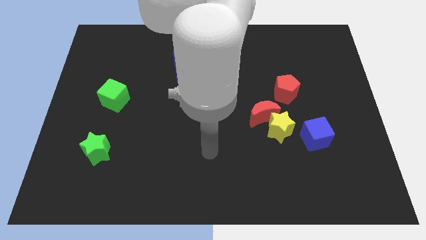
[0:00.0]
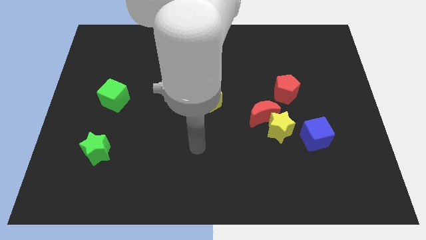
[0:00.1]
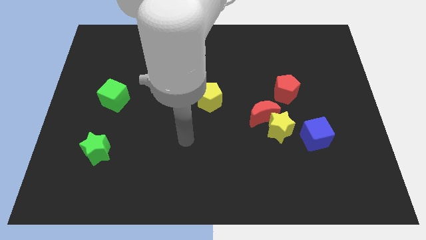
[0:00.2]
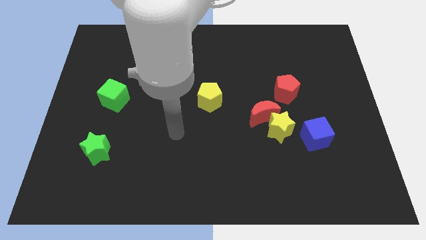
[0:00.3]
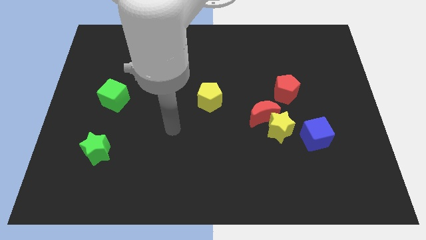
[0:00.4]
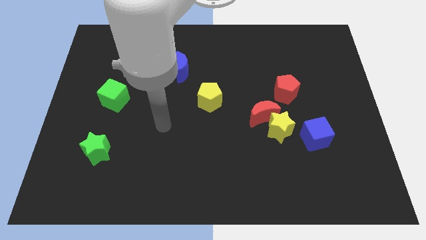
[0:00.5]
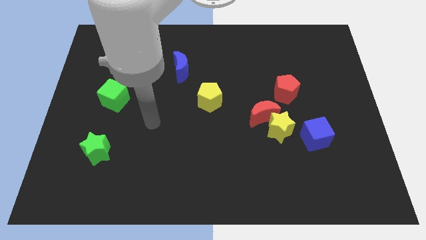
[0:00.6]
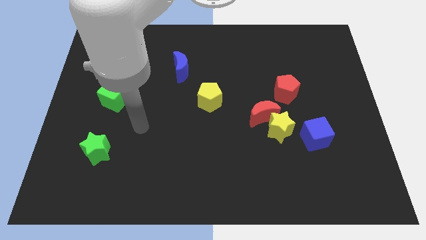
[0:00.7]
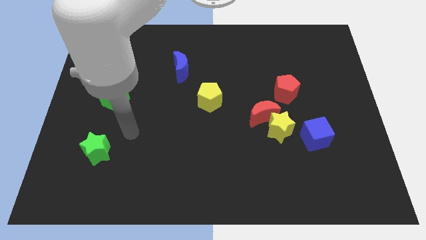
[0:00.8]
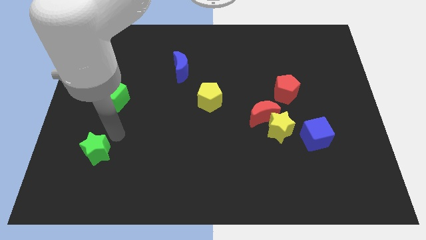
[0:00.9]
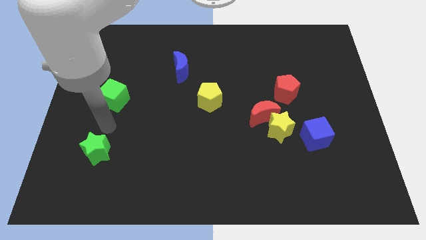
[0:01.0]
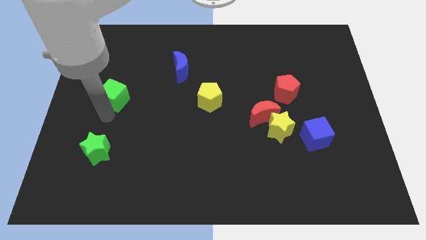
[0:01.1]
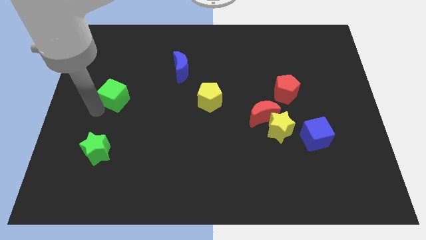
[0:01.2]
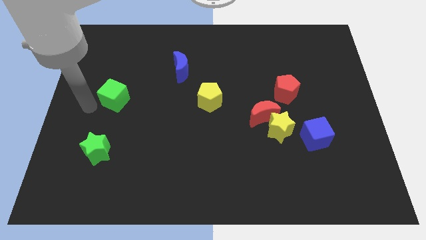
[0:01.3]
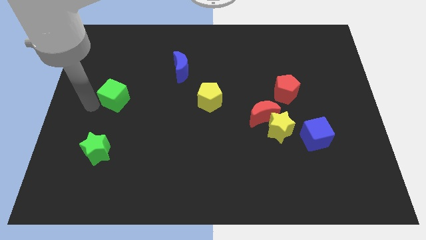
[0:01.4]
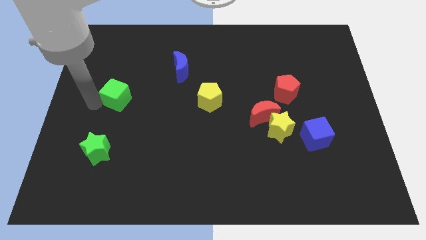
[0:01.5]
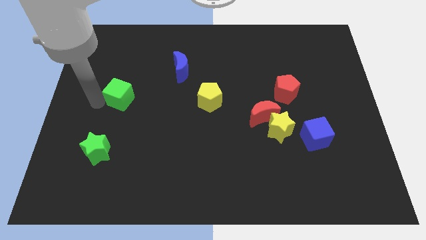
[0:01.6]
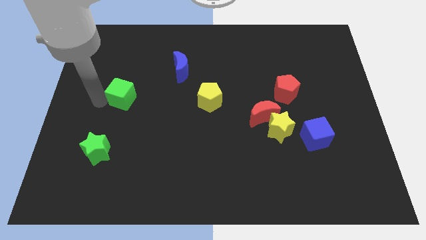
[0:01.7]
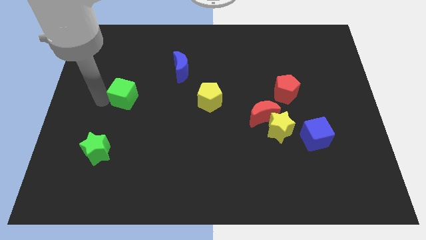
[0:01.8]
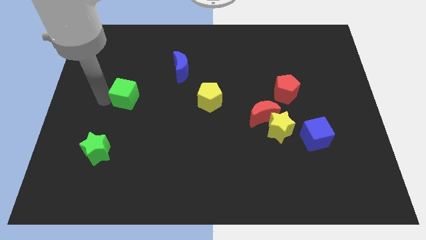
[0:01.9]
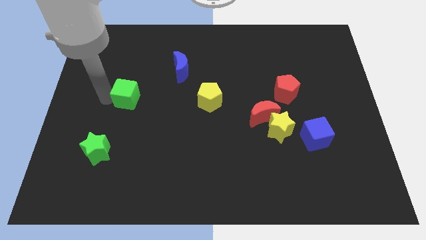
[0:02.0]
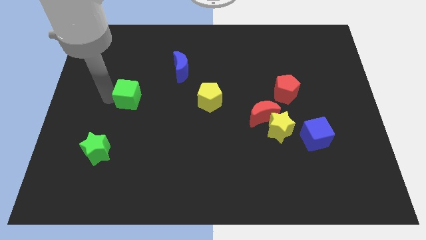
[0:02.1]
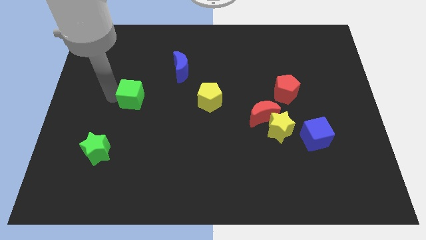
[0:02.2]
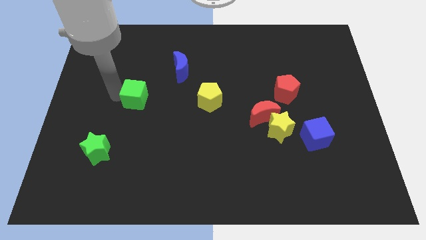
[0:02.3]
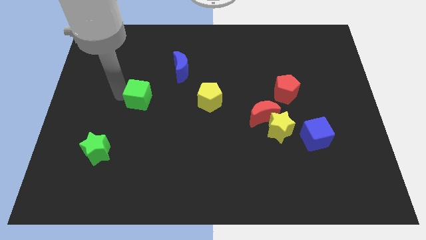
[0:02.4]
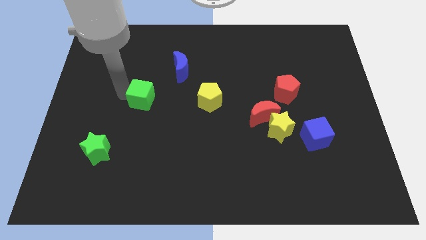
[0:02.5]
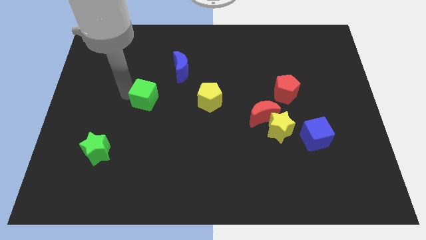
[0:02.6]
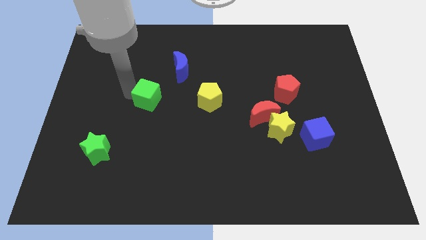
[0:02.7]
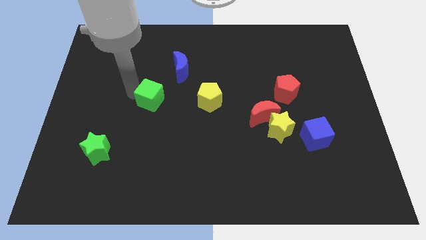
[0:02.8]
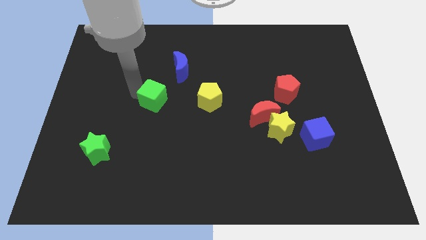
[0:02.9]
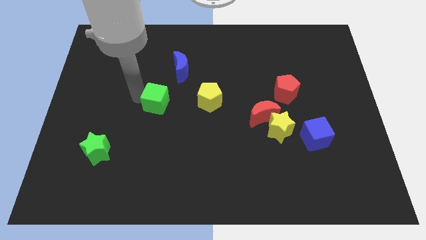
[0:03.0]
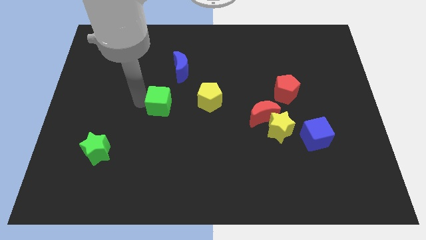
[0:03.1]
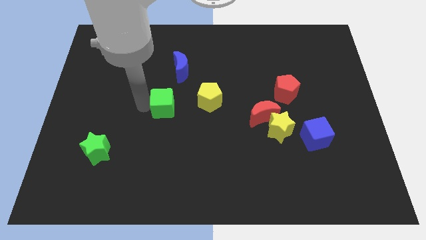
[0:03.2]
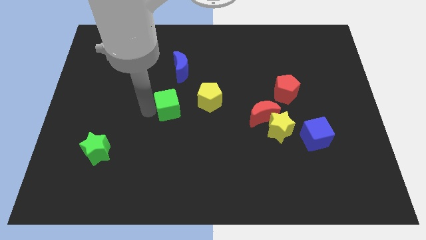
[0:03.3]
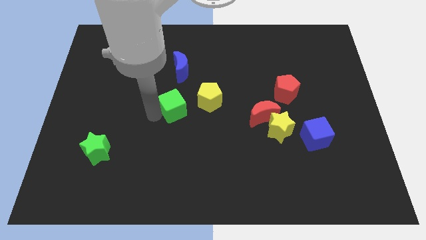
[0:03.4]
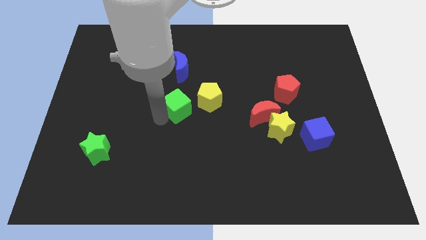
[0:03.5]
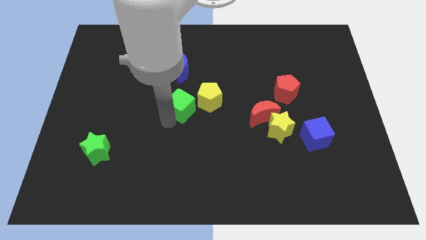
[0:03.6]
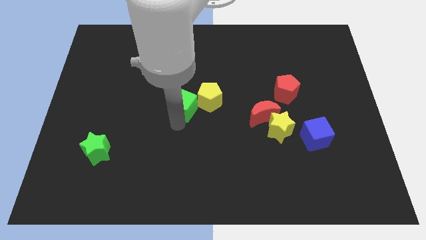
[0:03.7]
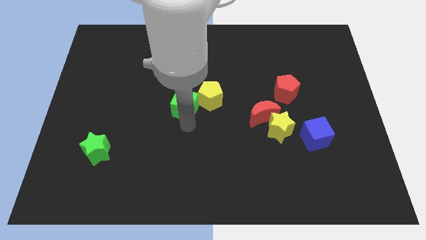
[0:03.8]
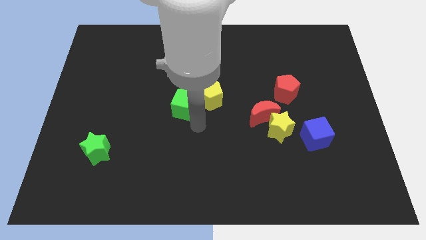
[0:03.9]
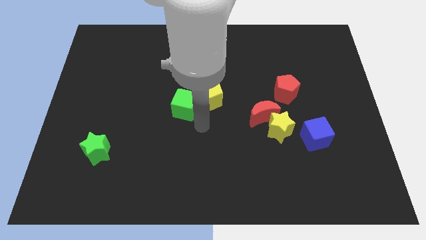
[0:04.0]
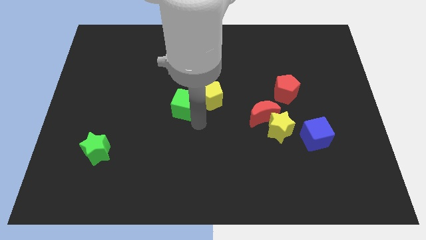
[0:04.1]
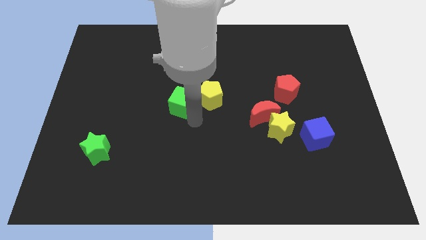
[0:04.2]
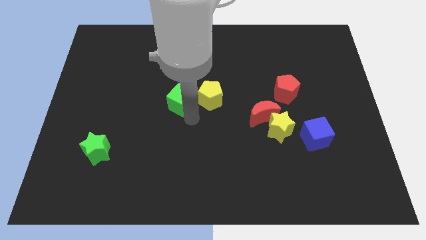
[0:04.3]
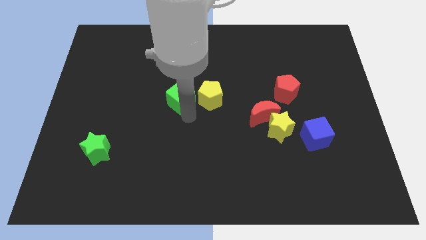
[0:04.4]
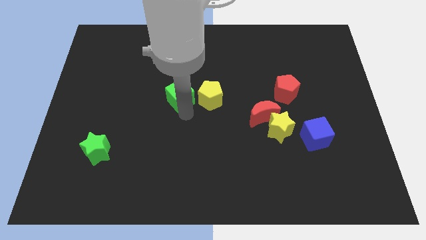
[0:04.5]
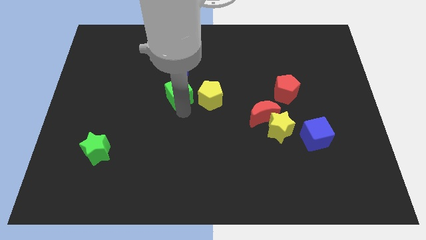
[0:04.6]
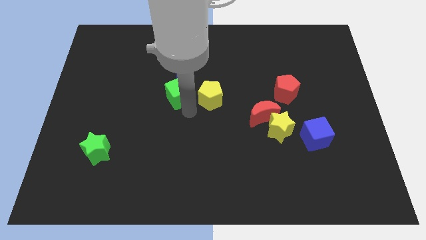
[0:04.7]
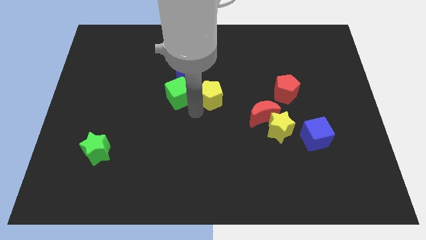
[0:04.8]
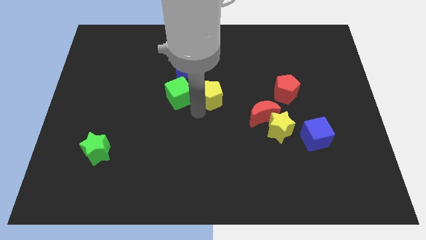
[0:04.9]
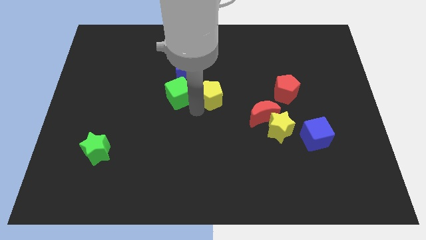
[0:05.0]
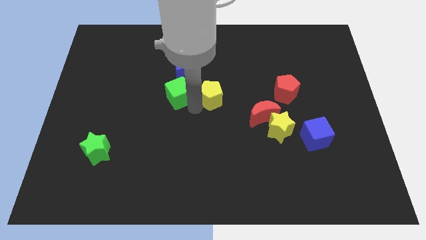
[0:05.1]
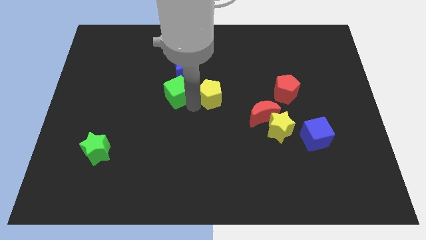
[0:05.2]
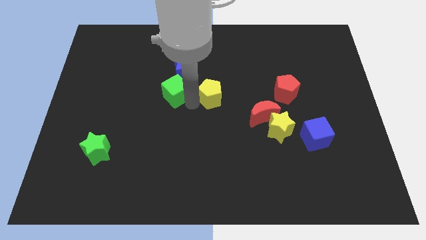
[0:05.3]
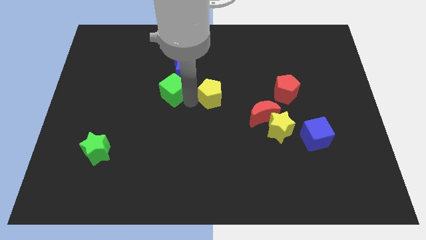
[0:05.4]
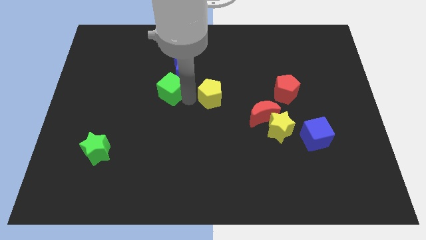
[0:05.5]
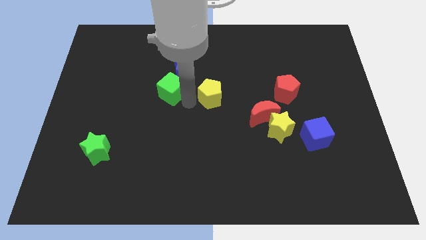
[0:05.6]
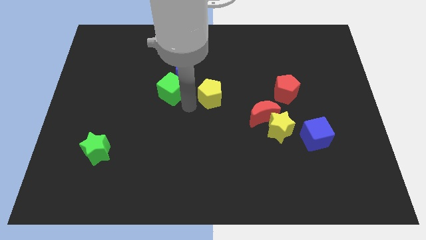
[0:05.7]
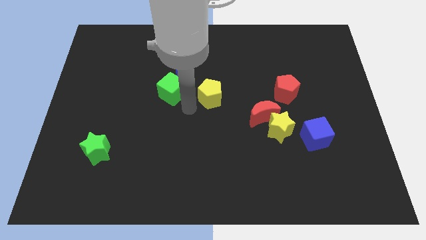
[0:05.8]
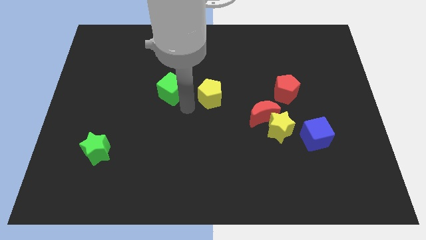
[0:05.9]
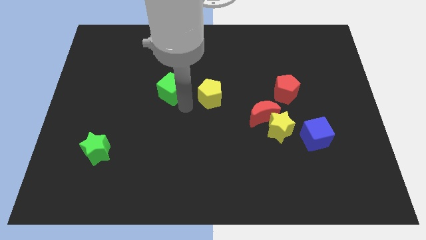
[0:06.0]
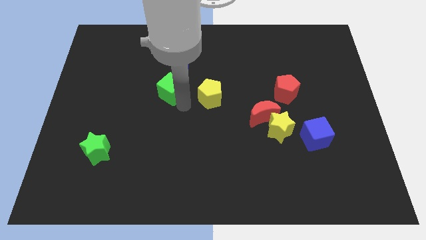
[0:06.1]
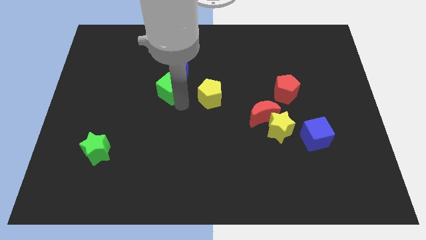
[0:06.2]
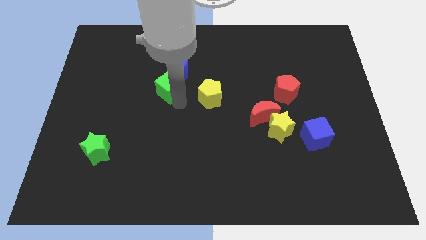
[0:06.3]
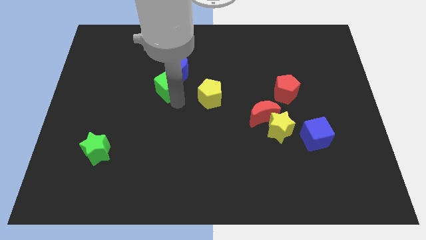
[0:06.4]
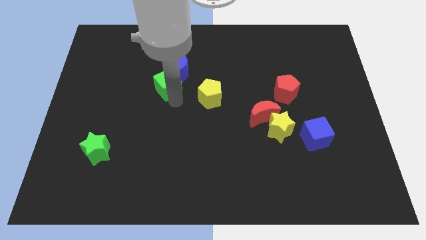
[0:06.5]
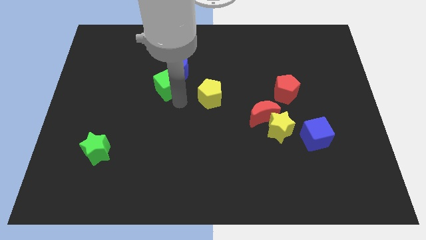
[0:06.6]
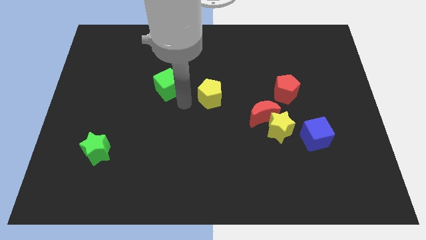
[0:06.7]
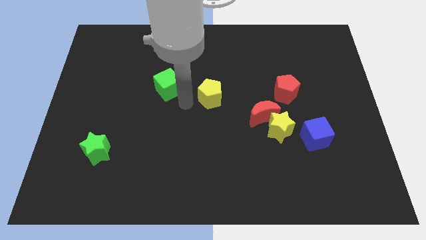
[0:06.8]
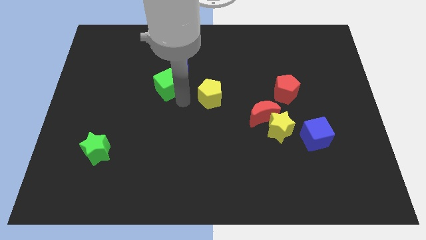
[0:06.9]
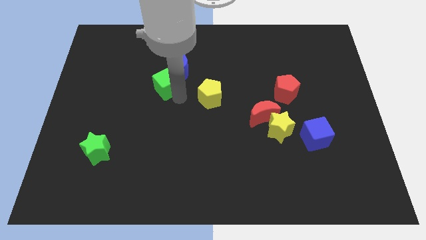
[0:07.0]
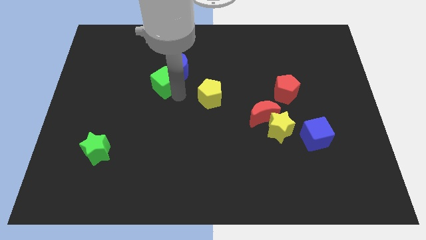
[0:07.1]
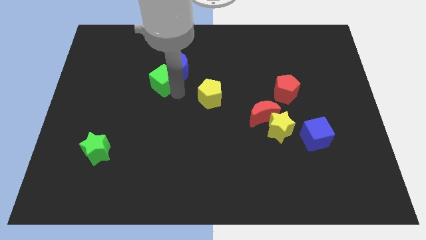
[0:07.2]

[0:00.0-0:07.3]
put the green cube next to the blue moon
